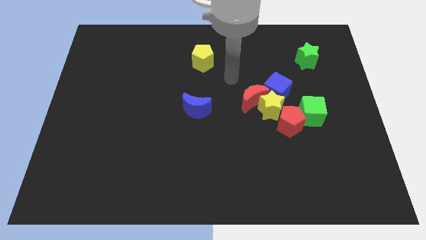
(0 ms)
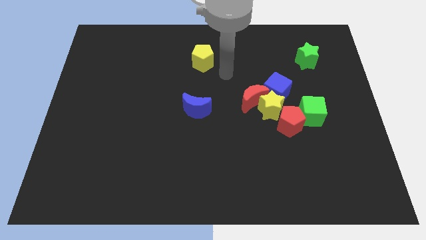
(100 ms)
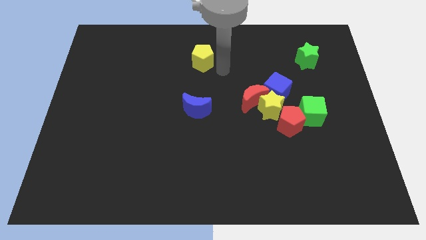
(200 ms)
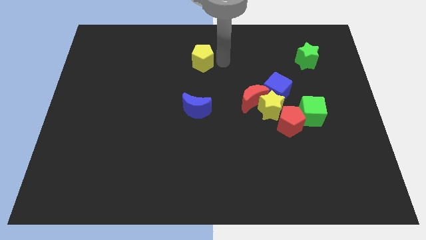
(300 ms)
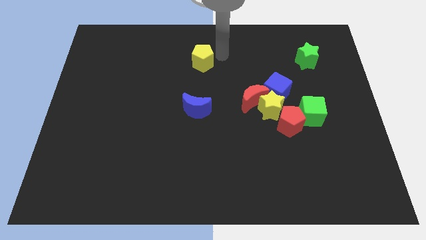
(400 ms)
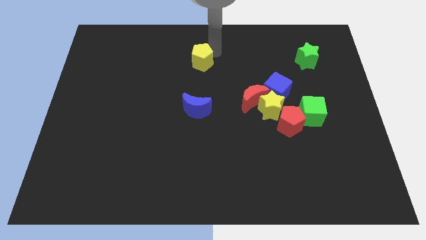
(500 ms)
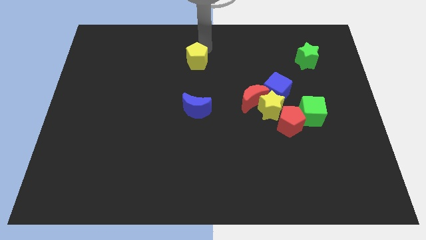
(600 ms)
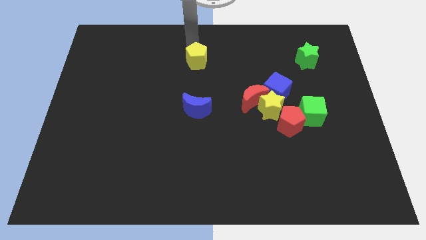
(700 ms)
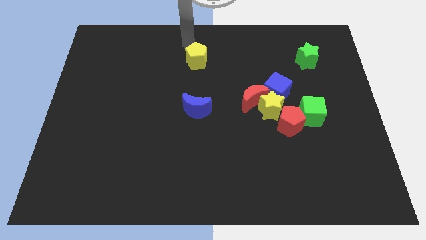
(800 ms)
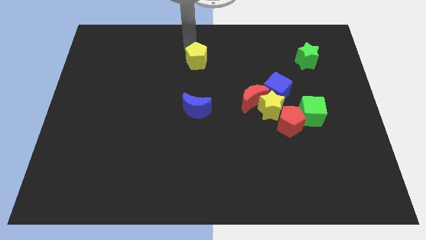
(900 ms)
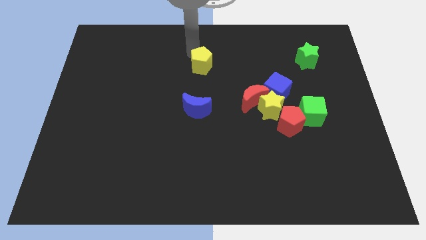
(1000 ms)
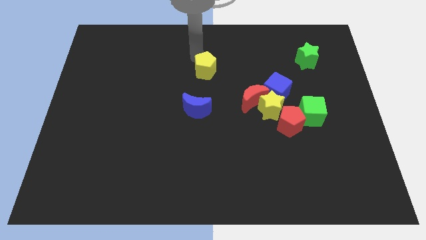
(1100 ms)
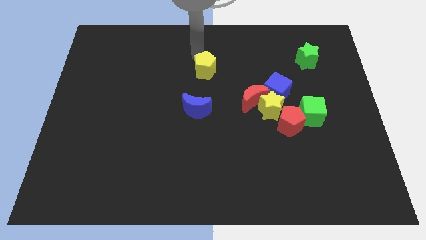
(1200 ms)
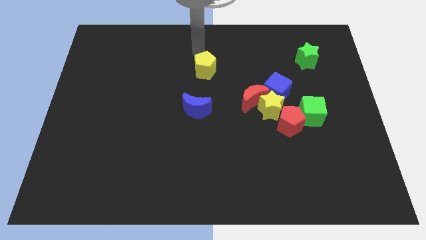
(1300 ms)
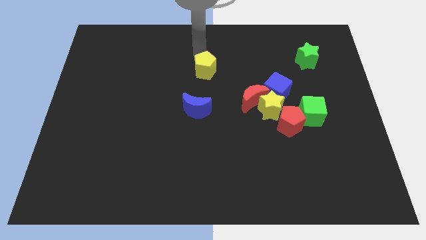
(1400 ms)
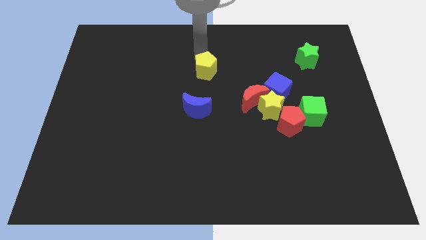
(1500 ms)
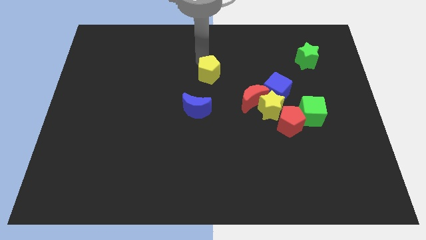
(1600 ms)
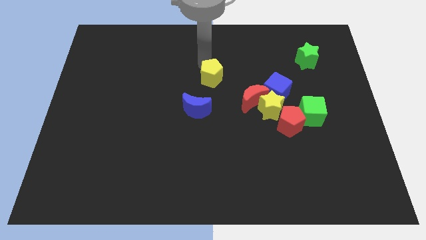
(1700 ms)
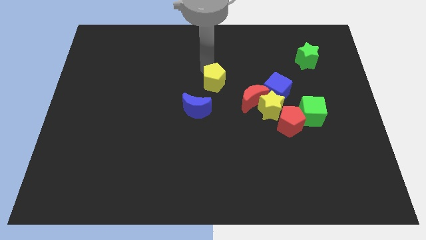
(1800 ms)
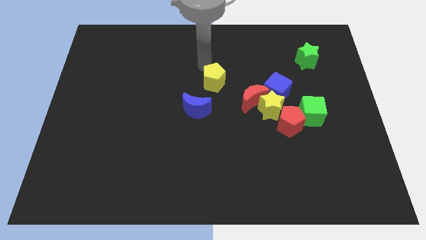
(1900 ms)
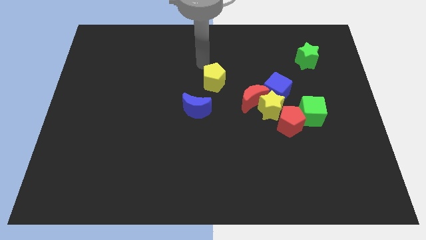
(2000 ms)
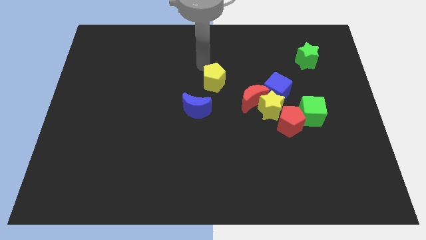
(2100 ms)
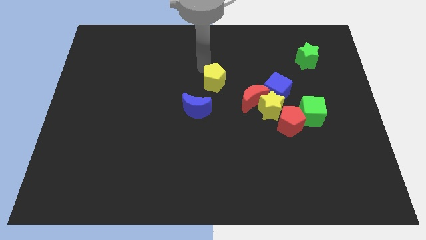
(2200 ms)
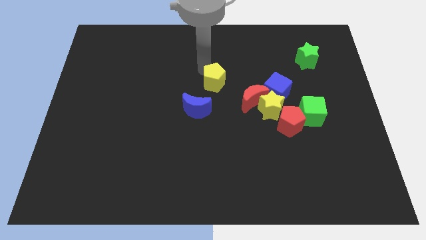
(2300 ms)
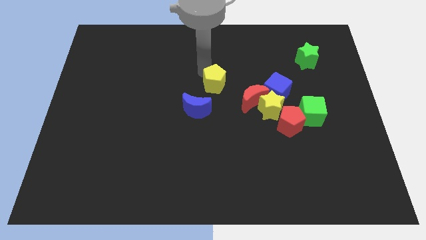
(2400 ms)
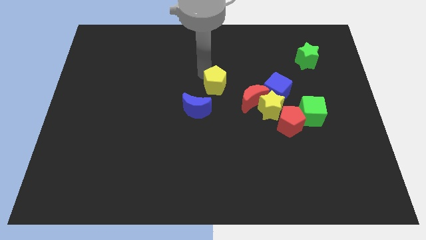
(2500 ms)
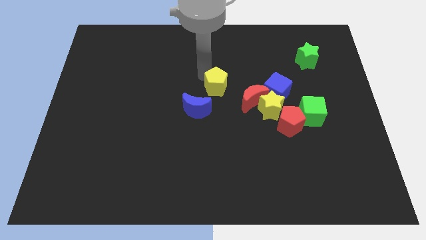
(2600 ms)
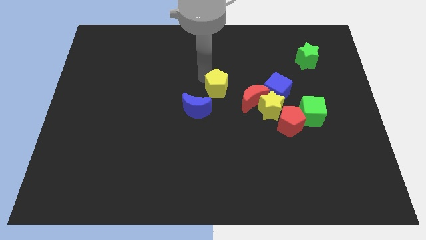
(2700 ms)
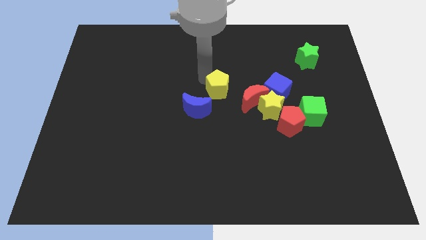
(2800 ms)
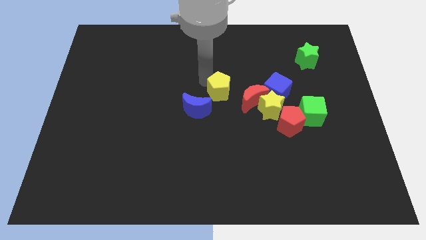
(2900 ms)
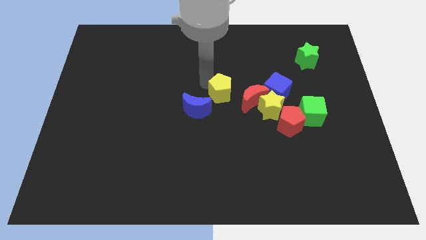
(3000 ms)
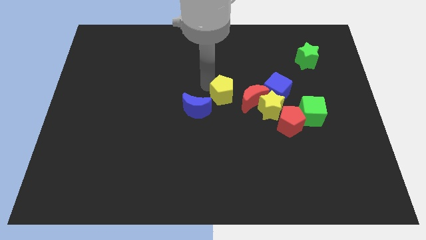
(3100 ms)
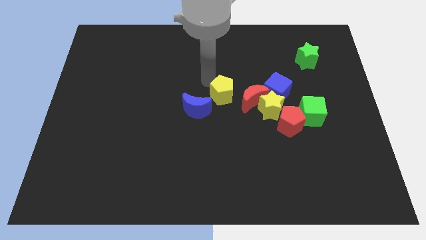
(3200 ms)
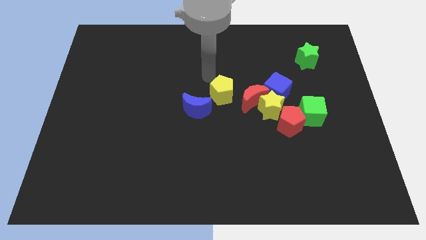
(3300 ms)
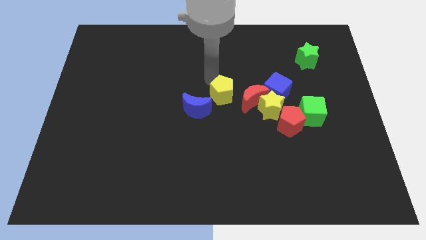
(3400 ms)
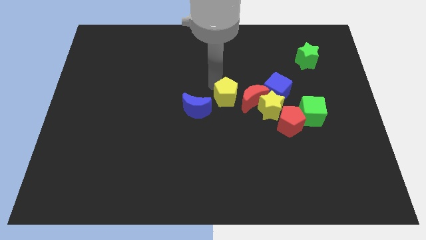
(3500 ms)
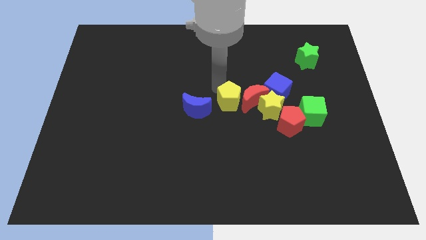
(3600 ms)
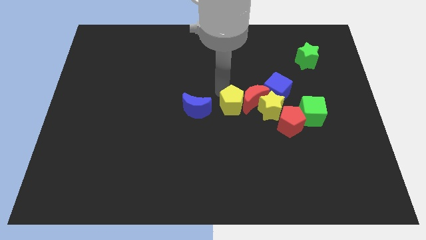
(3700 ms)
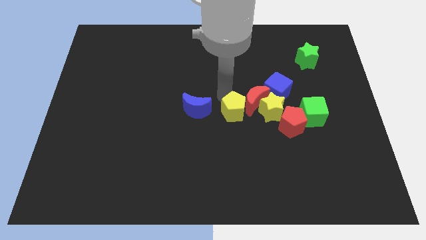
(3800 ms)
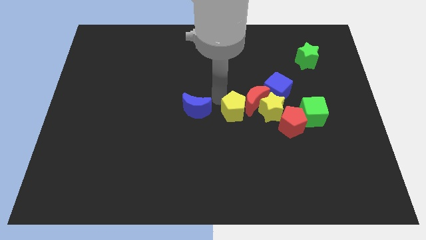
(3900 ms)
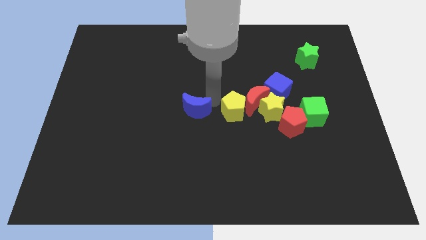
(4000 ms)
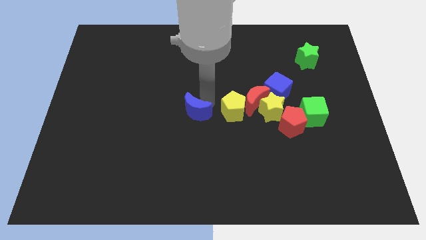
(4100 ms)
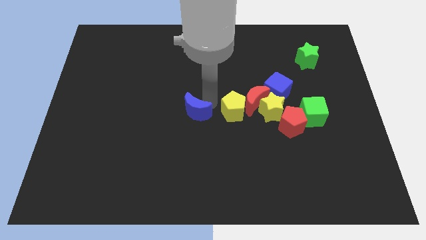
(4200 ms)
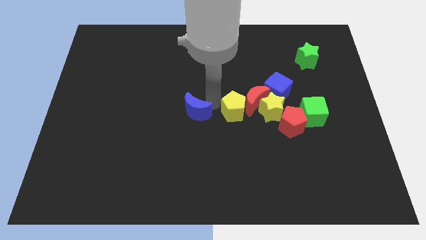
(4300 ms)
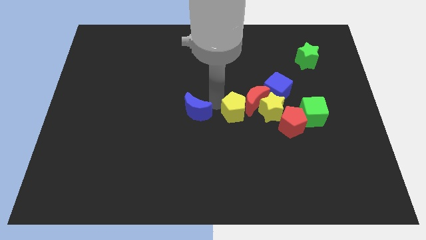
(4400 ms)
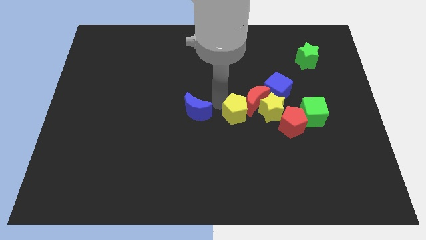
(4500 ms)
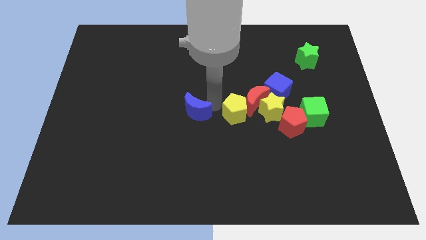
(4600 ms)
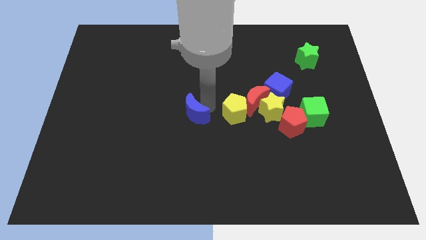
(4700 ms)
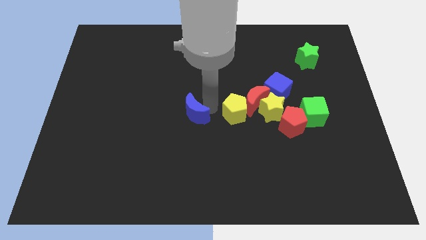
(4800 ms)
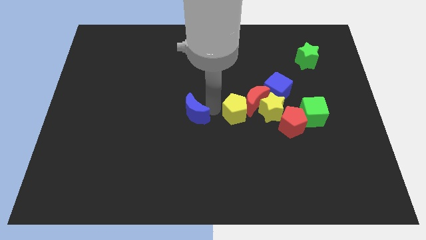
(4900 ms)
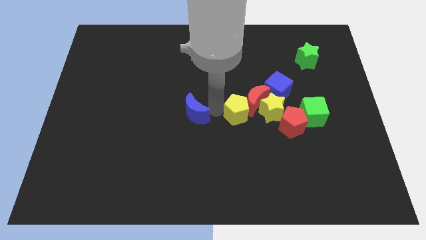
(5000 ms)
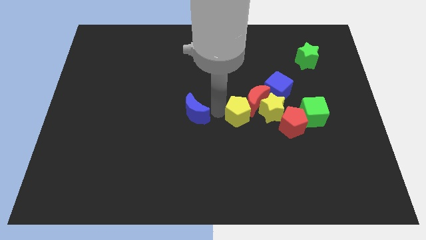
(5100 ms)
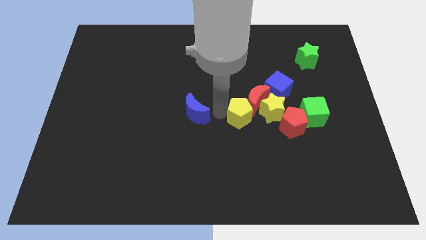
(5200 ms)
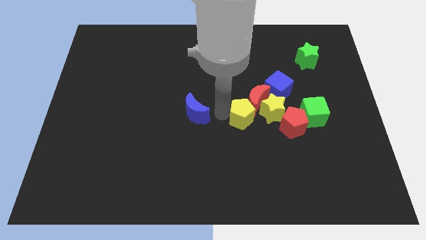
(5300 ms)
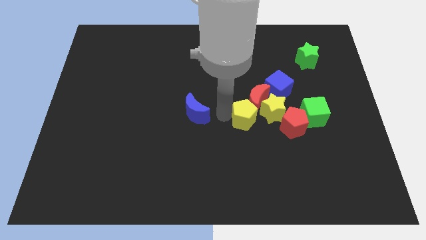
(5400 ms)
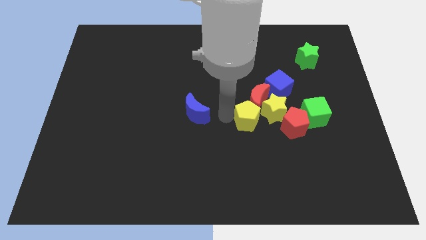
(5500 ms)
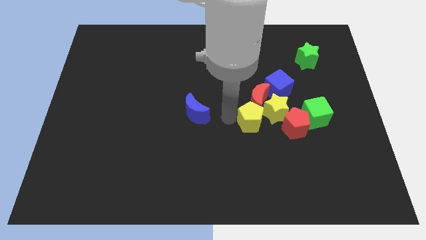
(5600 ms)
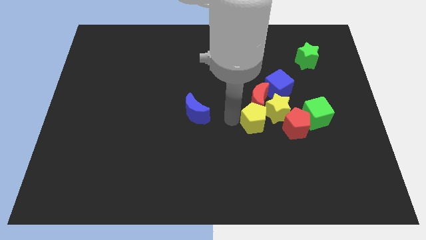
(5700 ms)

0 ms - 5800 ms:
push the yellow pentagon towards the yellow star

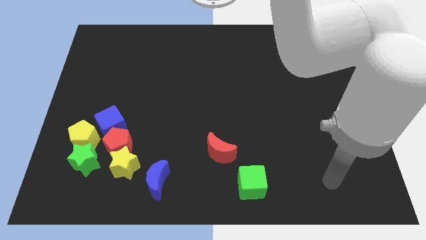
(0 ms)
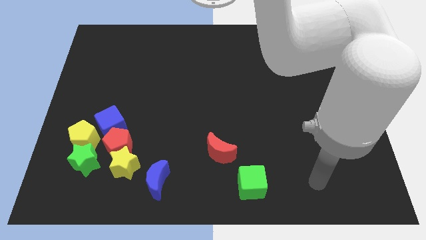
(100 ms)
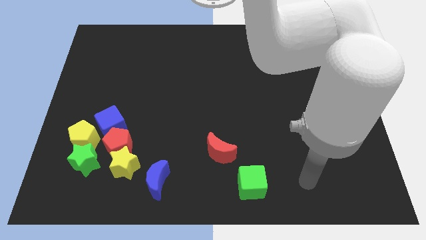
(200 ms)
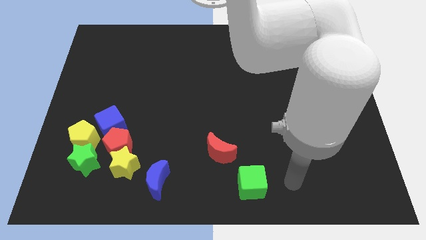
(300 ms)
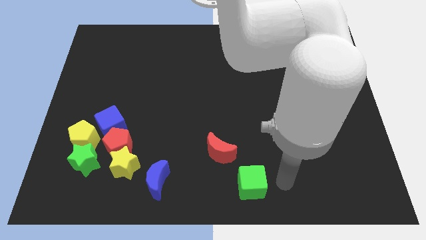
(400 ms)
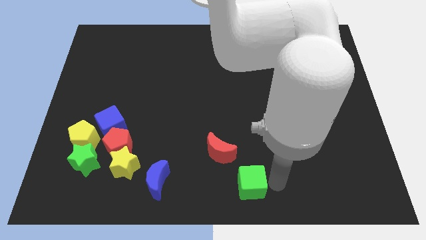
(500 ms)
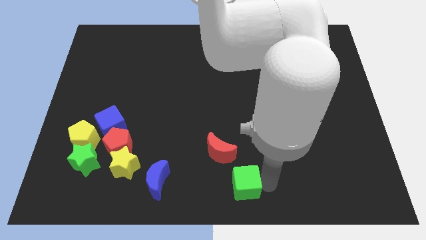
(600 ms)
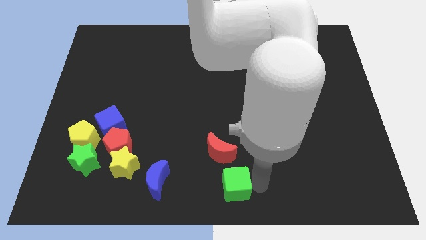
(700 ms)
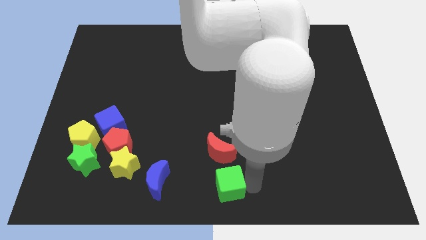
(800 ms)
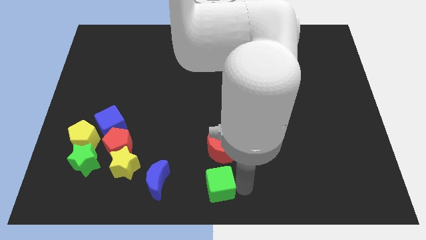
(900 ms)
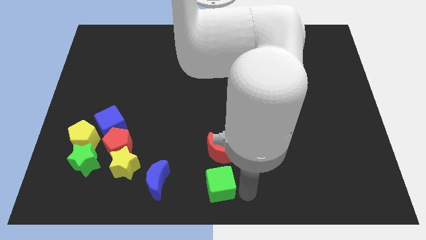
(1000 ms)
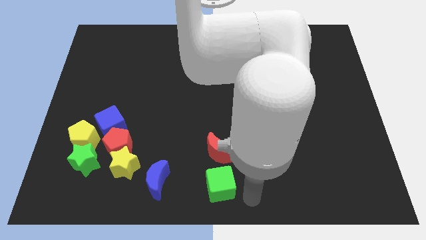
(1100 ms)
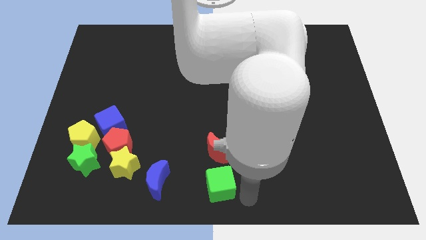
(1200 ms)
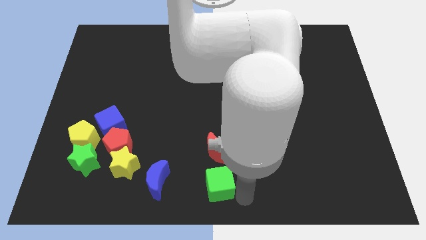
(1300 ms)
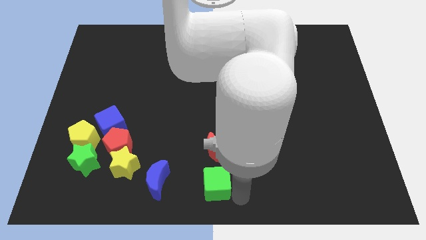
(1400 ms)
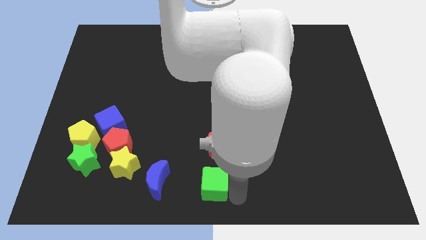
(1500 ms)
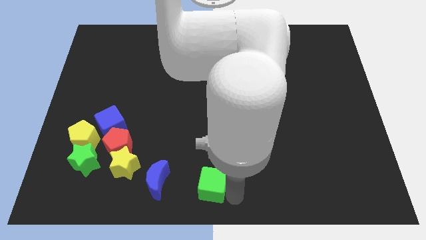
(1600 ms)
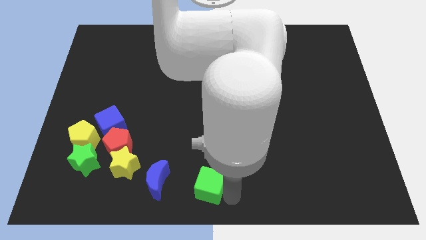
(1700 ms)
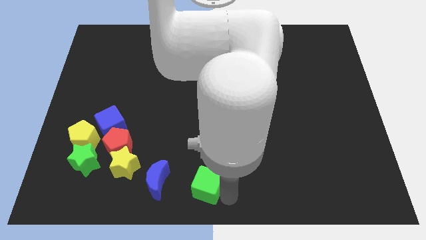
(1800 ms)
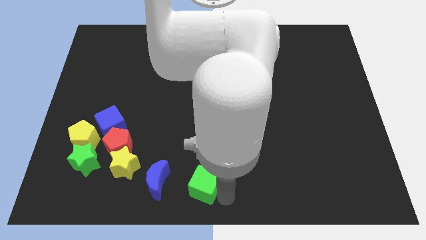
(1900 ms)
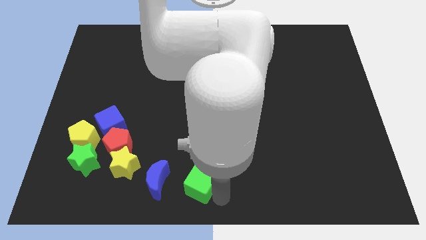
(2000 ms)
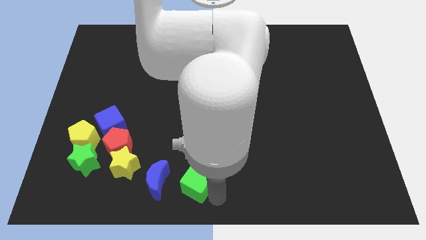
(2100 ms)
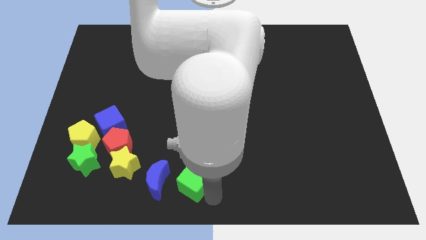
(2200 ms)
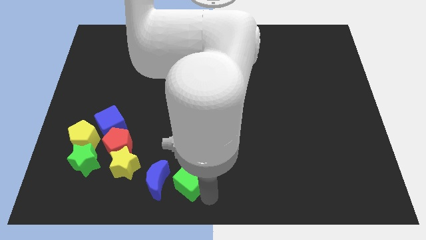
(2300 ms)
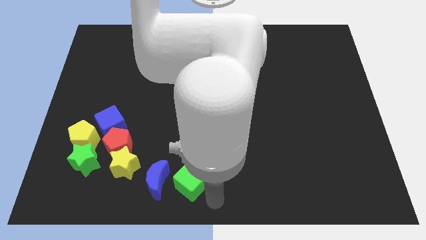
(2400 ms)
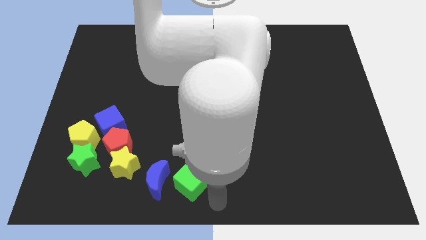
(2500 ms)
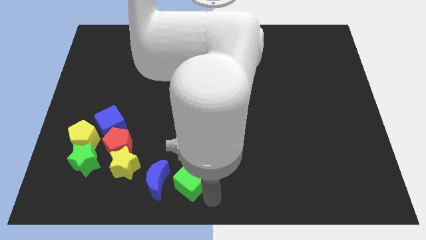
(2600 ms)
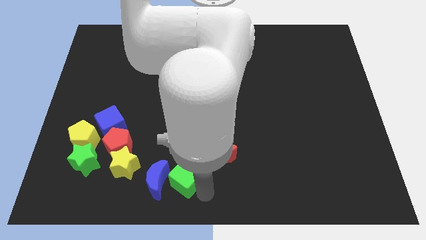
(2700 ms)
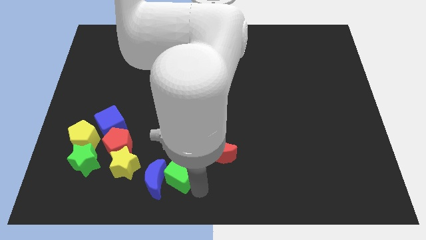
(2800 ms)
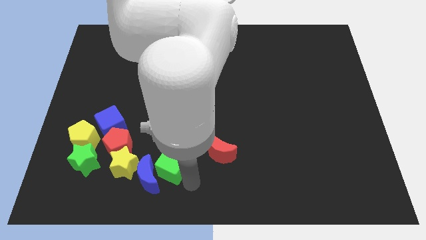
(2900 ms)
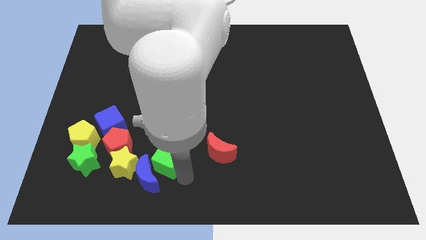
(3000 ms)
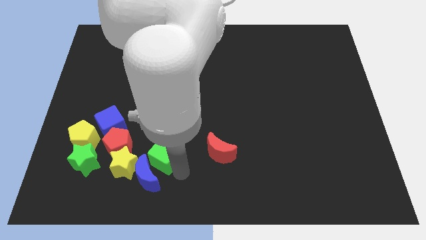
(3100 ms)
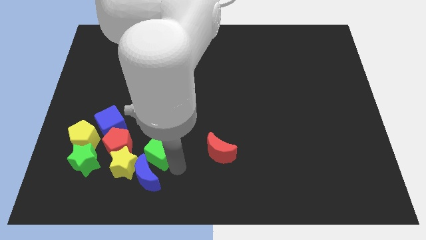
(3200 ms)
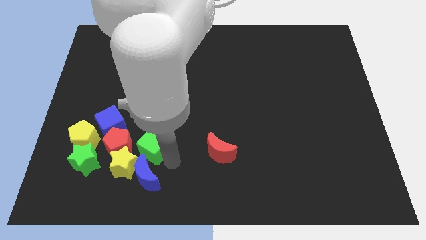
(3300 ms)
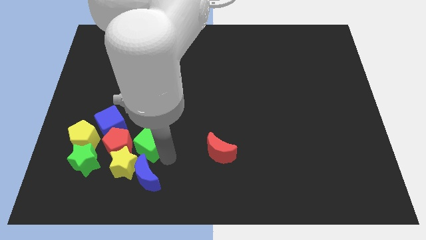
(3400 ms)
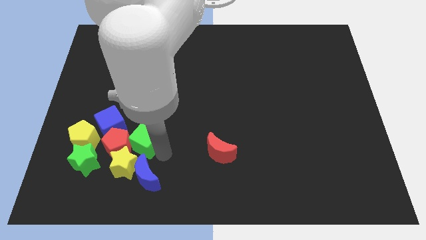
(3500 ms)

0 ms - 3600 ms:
move the green cube towards the red pentagon
